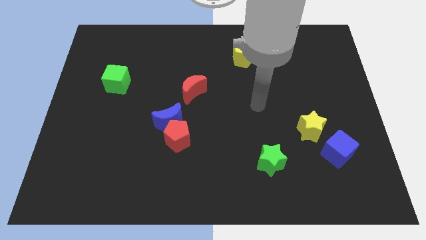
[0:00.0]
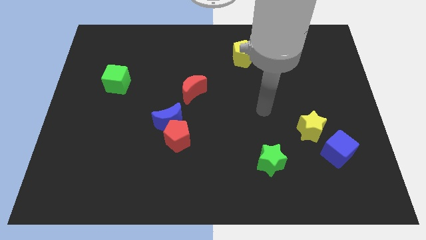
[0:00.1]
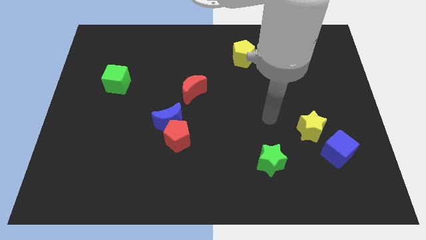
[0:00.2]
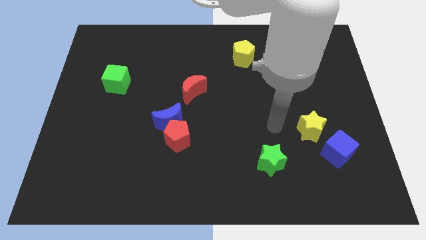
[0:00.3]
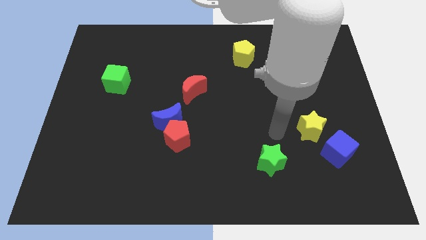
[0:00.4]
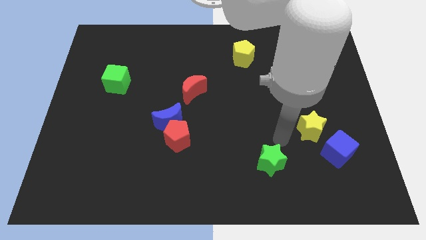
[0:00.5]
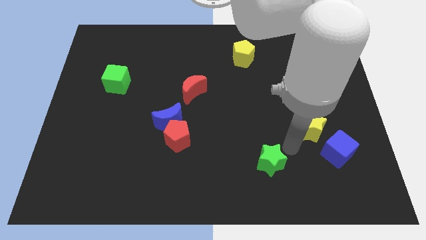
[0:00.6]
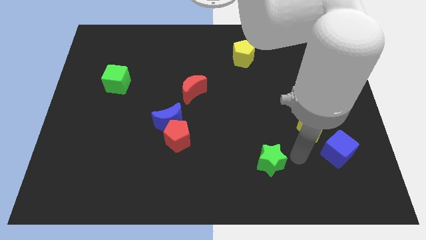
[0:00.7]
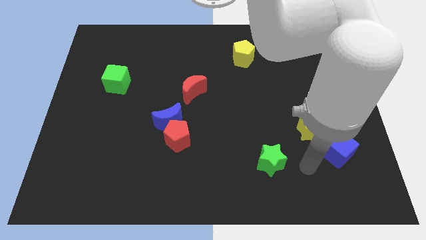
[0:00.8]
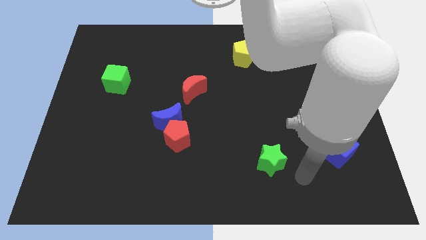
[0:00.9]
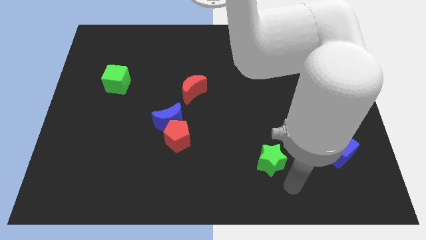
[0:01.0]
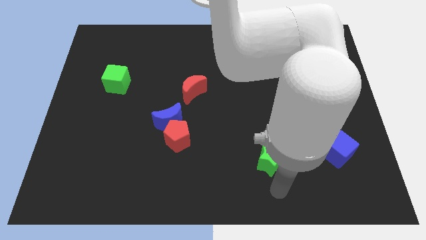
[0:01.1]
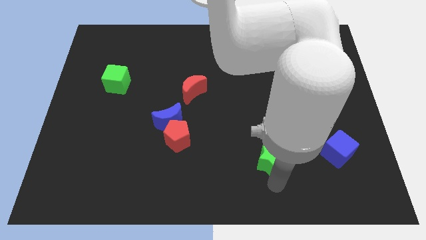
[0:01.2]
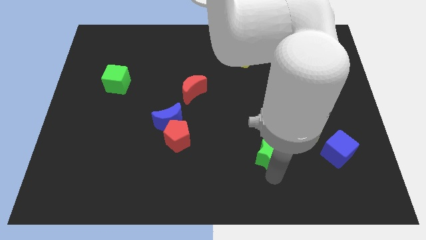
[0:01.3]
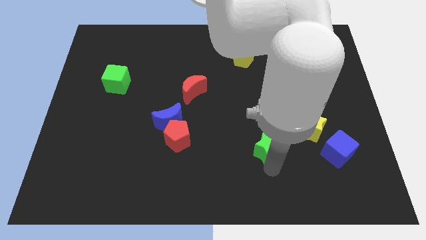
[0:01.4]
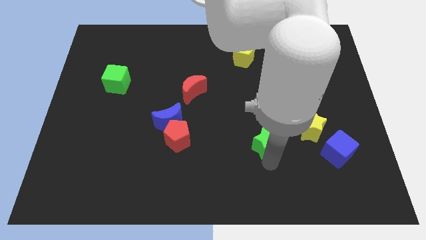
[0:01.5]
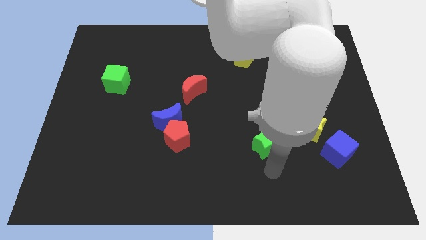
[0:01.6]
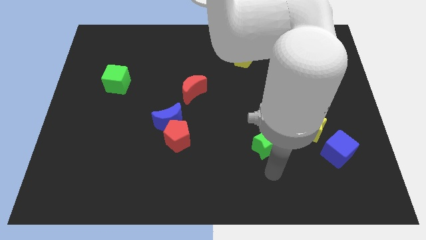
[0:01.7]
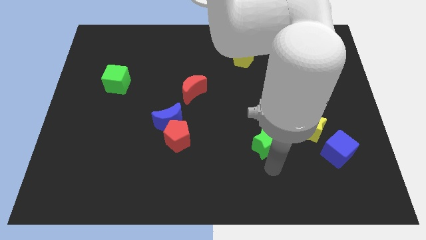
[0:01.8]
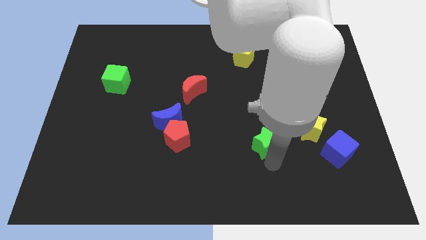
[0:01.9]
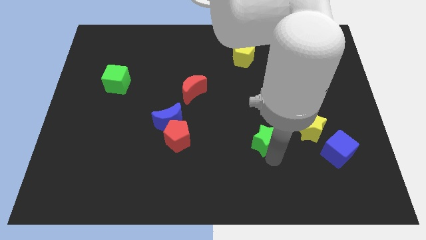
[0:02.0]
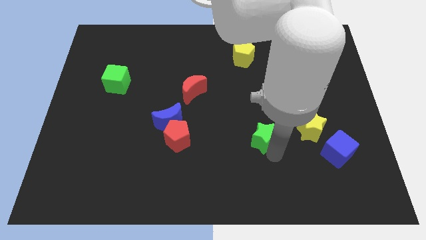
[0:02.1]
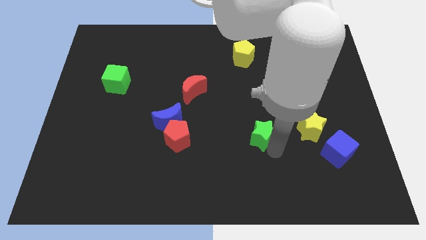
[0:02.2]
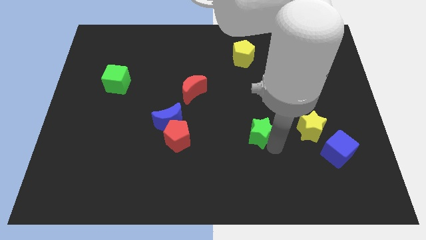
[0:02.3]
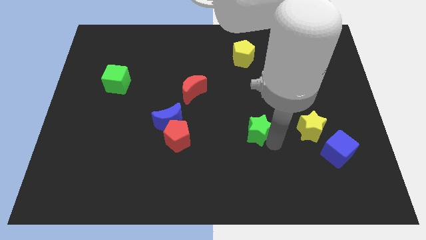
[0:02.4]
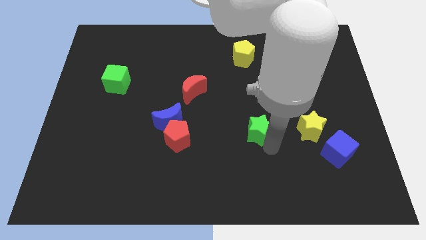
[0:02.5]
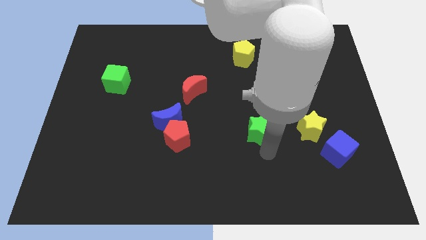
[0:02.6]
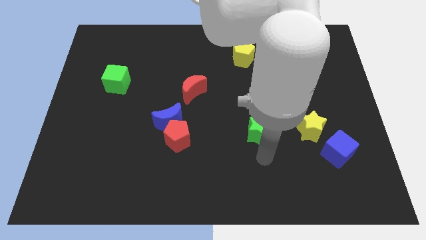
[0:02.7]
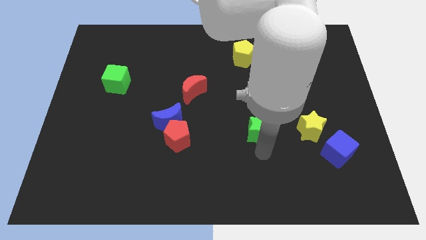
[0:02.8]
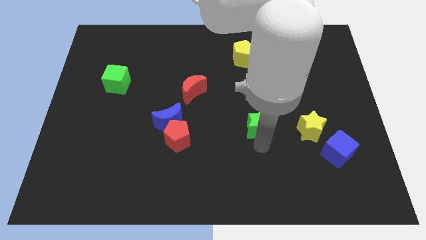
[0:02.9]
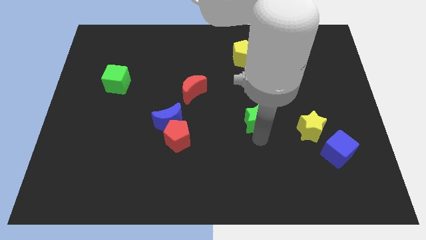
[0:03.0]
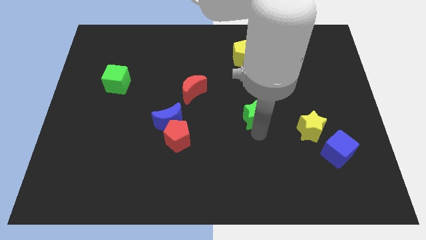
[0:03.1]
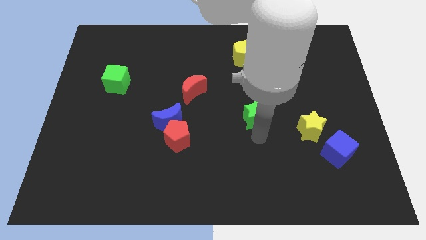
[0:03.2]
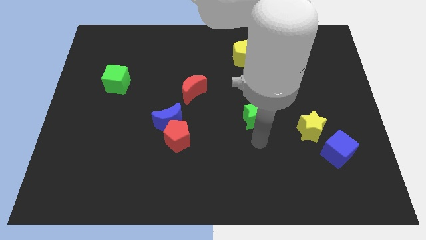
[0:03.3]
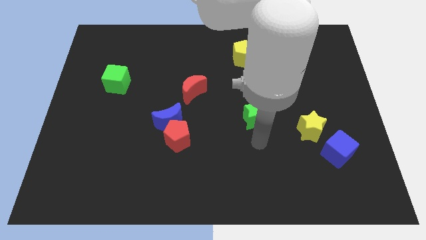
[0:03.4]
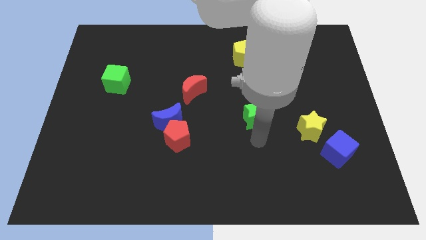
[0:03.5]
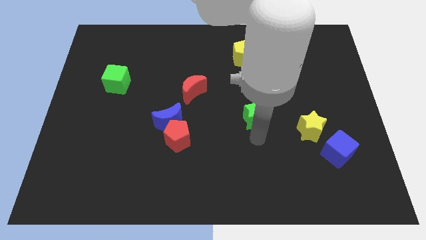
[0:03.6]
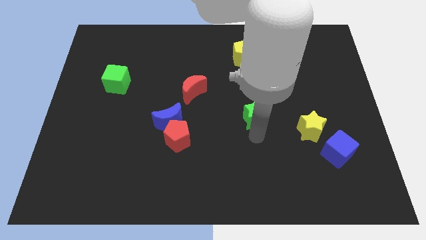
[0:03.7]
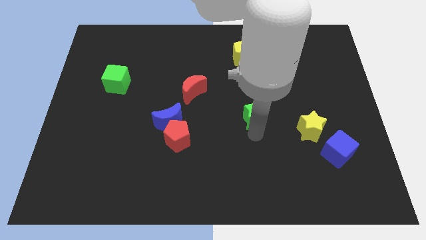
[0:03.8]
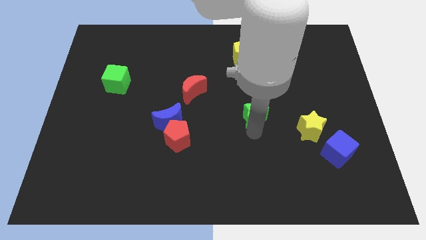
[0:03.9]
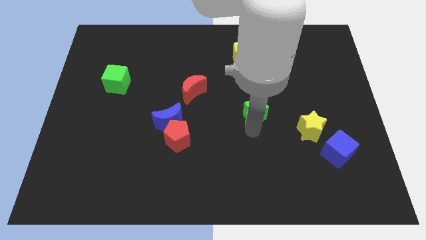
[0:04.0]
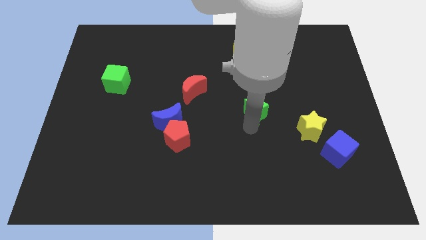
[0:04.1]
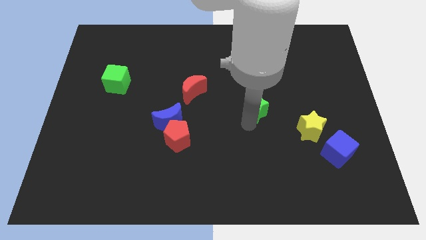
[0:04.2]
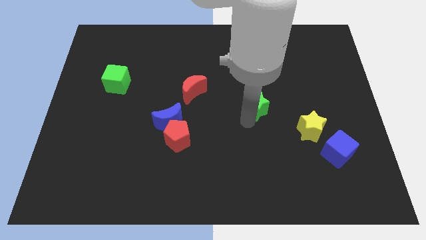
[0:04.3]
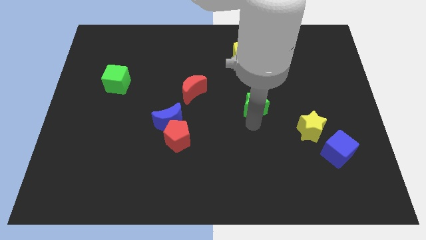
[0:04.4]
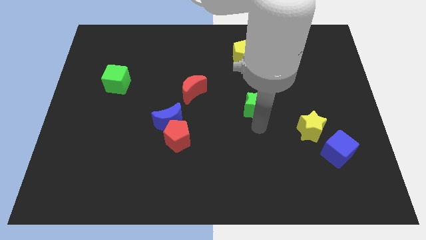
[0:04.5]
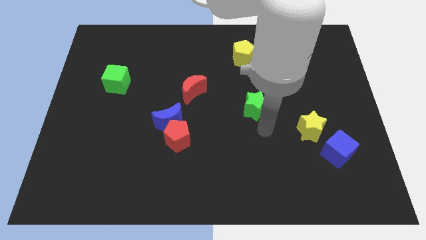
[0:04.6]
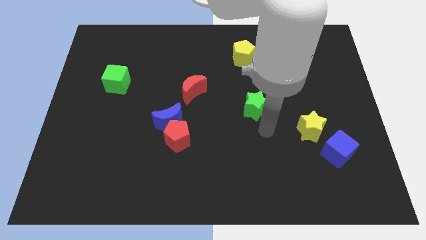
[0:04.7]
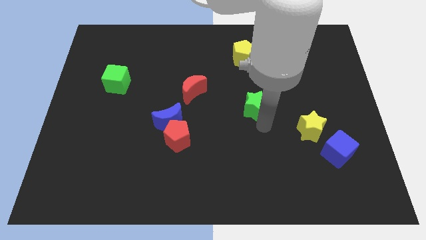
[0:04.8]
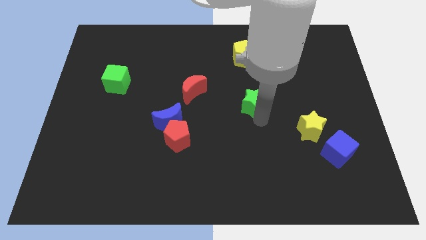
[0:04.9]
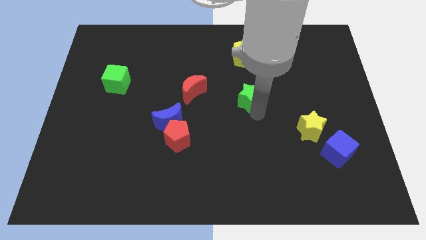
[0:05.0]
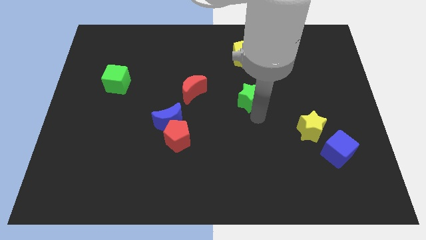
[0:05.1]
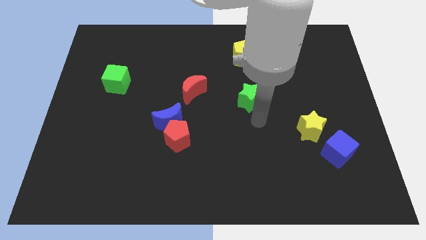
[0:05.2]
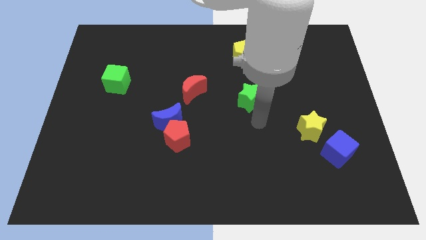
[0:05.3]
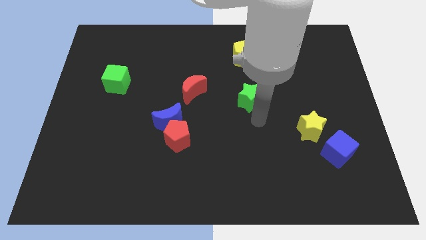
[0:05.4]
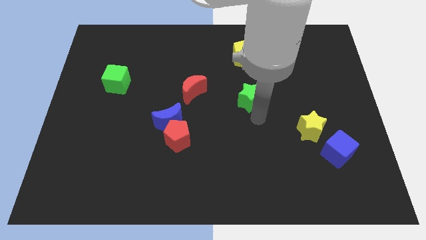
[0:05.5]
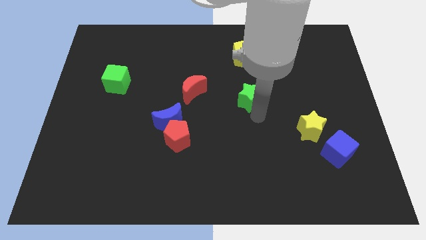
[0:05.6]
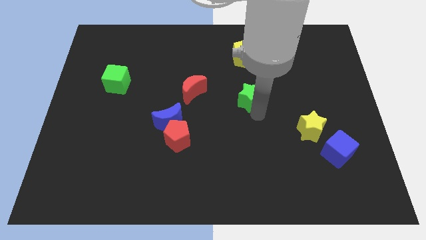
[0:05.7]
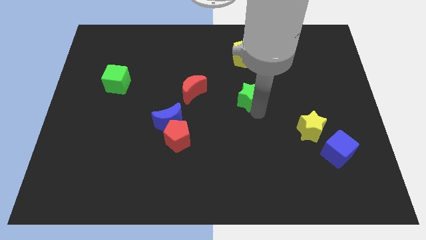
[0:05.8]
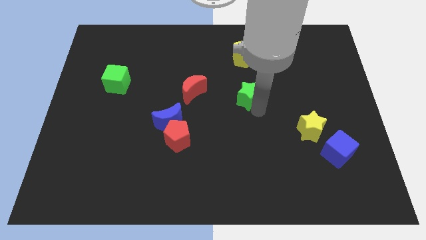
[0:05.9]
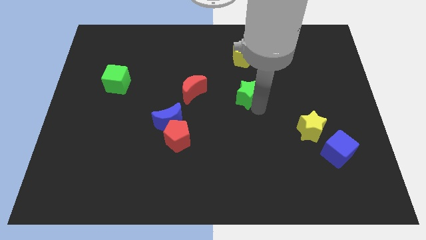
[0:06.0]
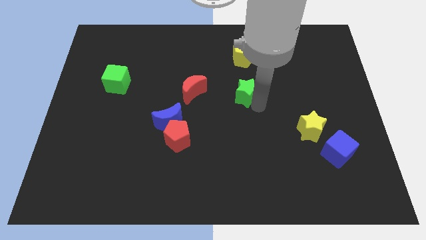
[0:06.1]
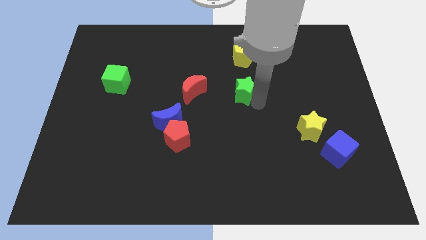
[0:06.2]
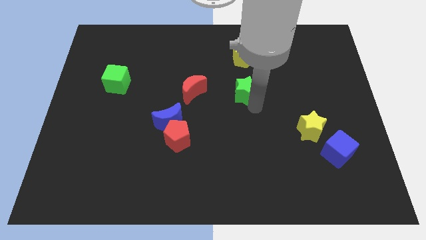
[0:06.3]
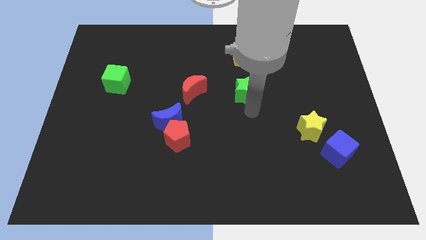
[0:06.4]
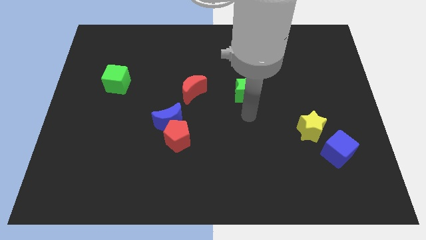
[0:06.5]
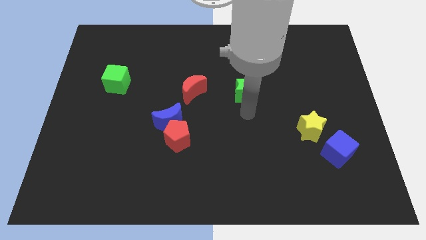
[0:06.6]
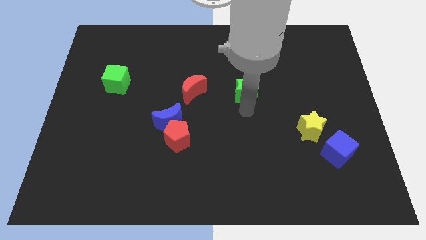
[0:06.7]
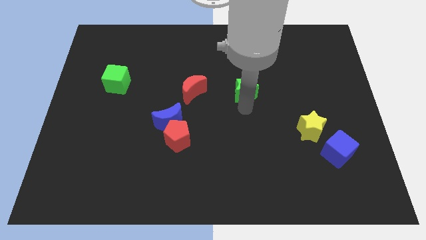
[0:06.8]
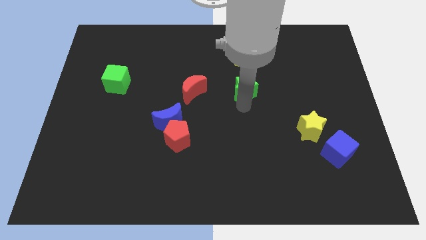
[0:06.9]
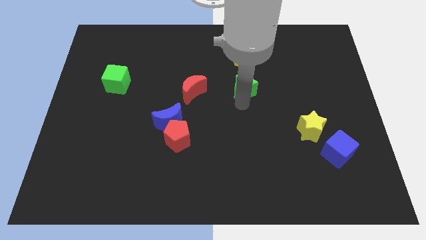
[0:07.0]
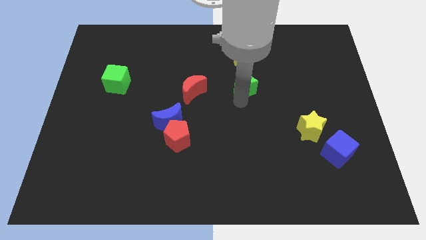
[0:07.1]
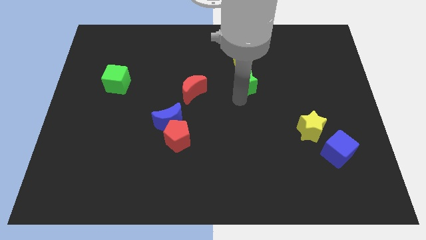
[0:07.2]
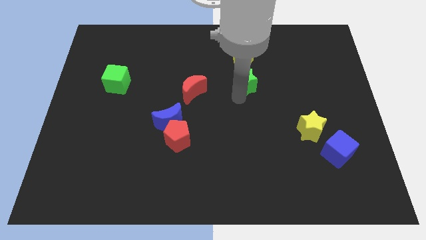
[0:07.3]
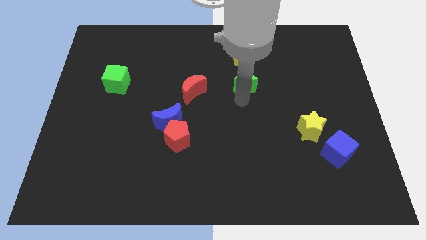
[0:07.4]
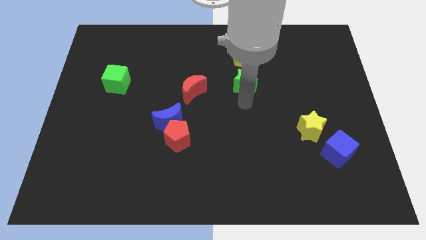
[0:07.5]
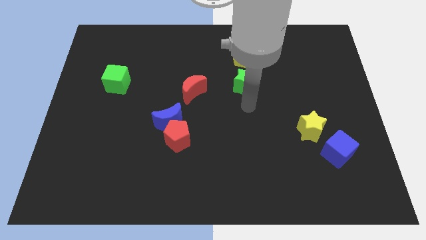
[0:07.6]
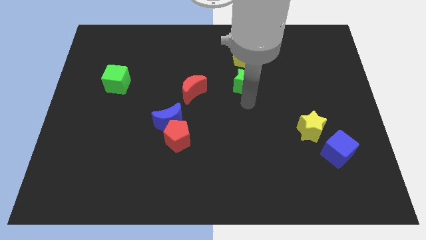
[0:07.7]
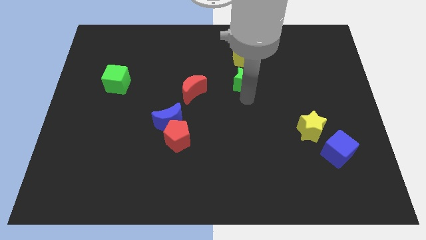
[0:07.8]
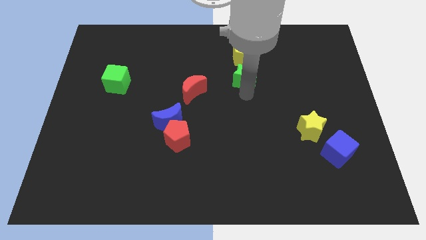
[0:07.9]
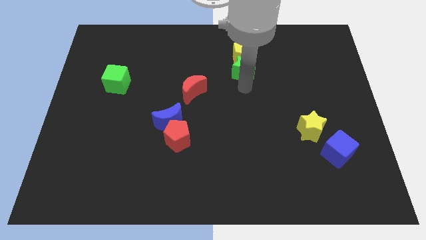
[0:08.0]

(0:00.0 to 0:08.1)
move the green star to the yellow pentagon
